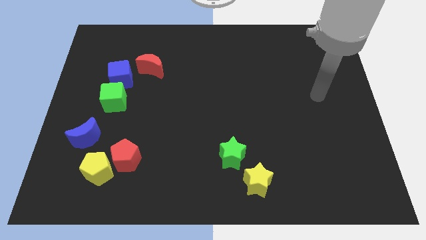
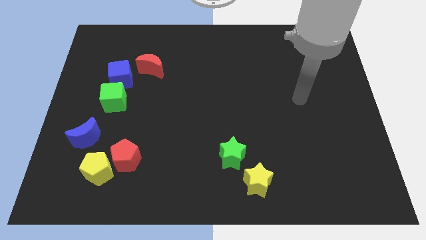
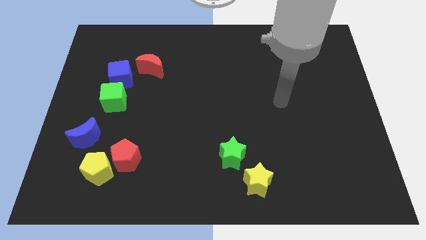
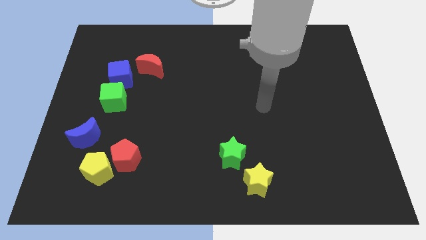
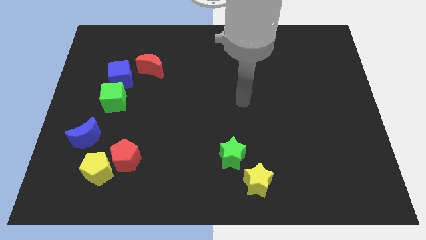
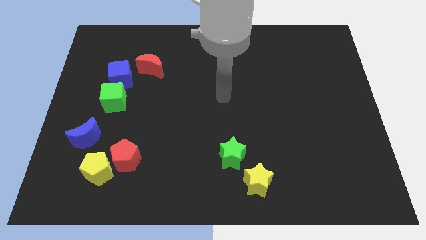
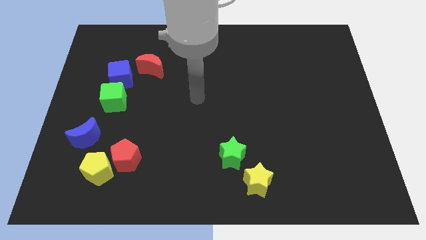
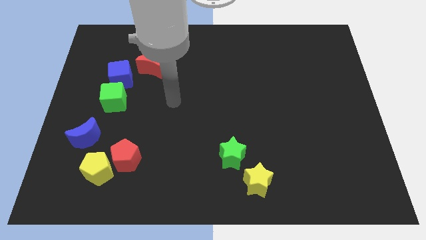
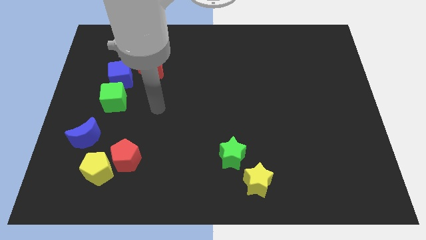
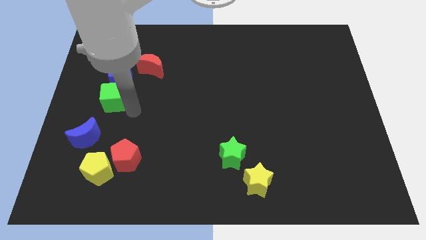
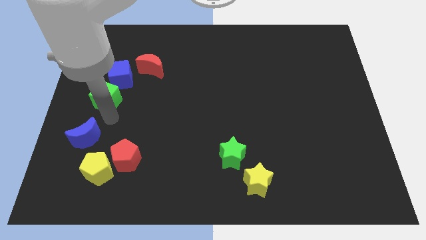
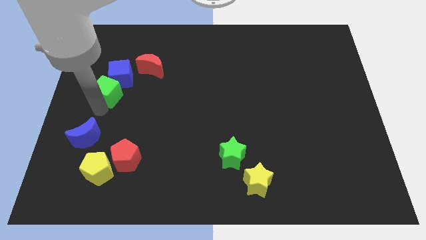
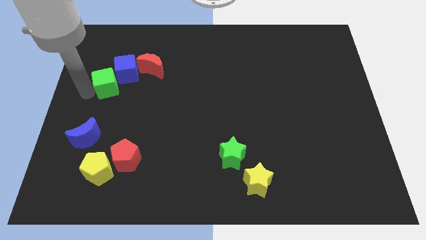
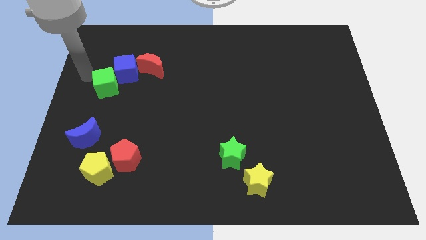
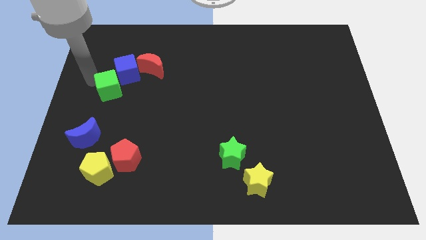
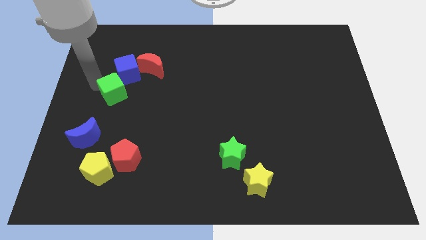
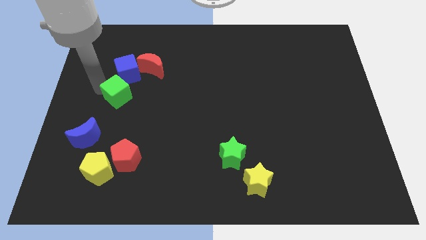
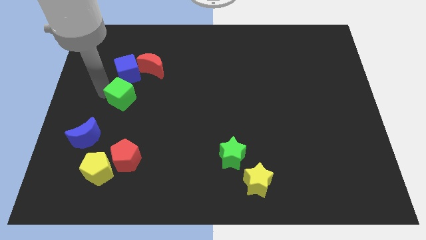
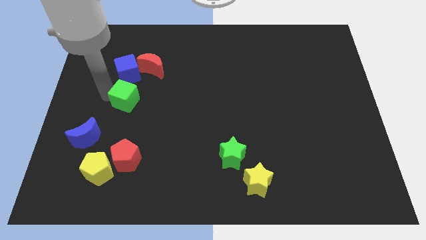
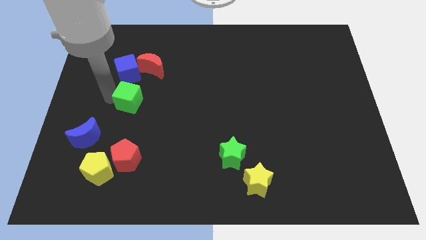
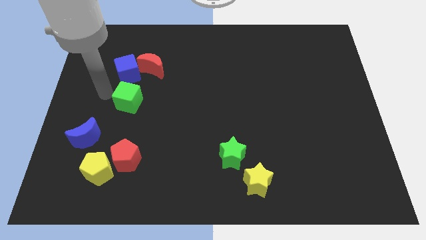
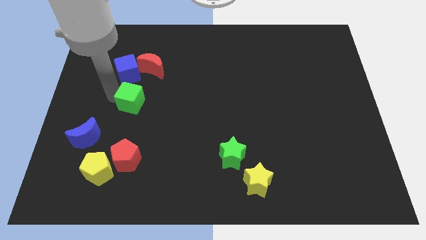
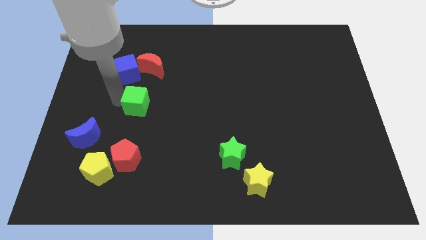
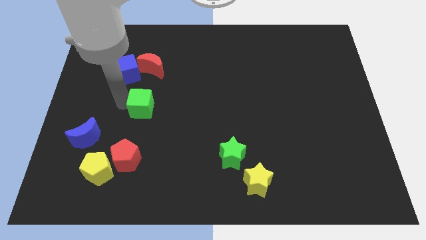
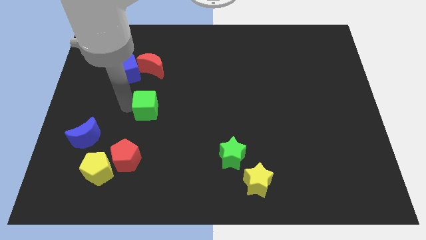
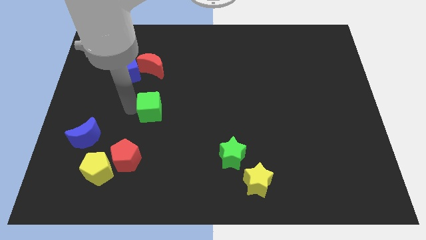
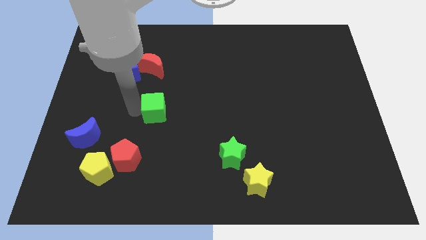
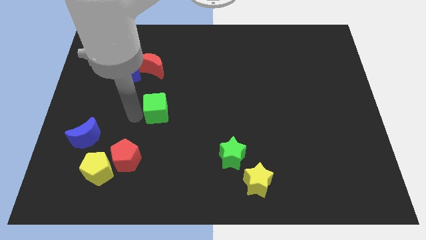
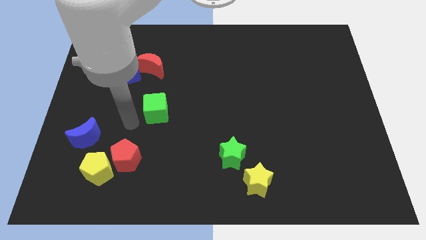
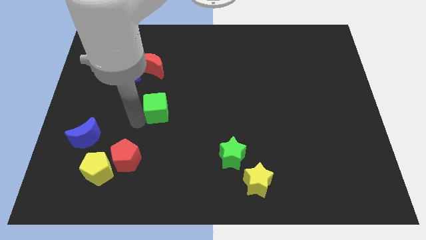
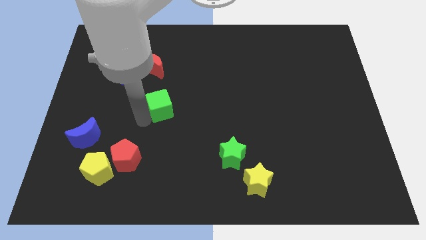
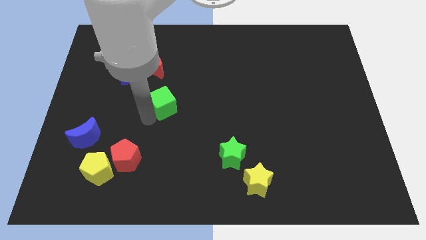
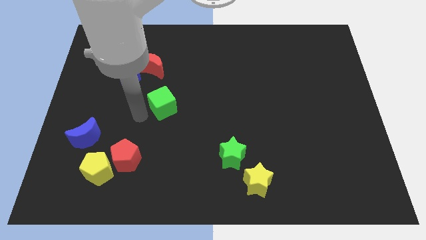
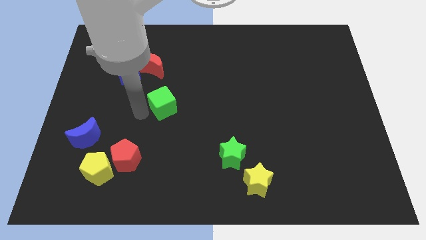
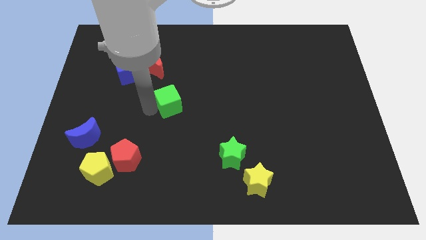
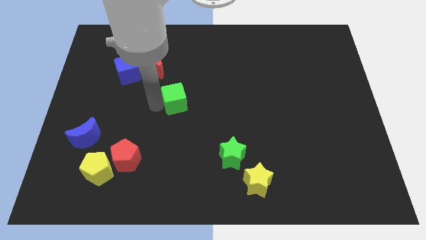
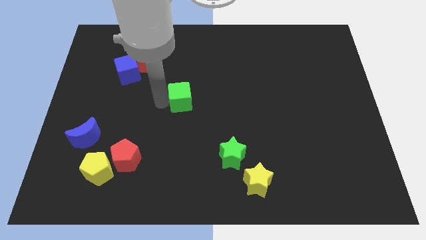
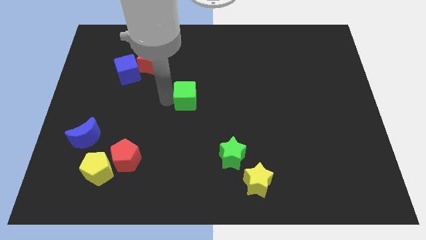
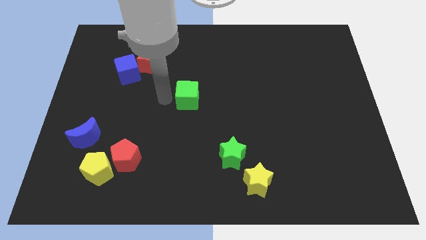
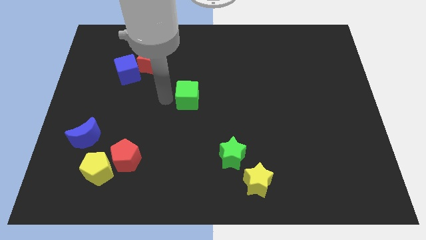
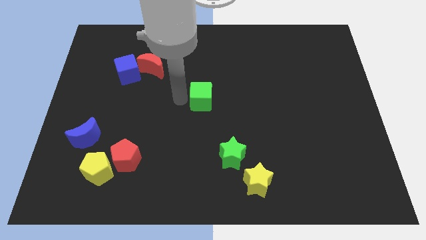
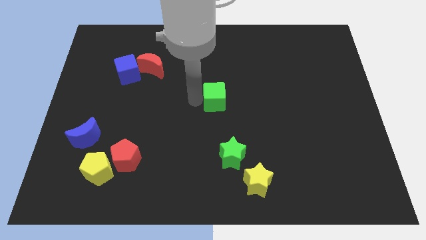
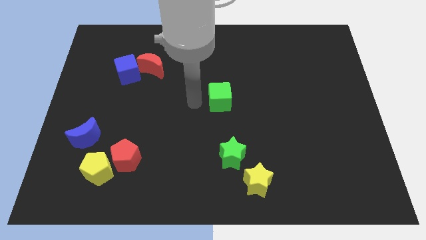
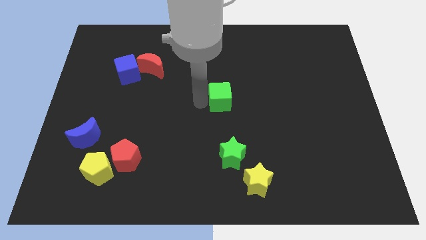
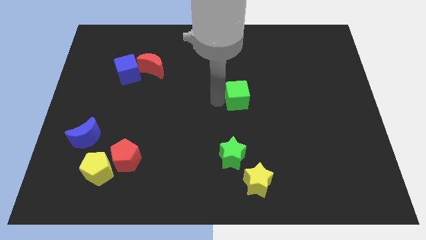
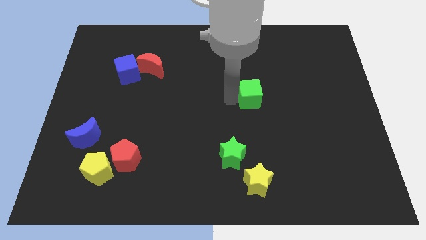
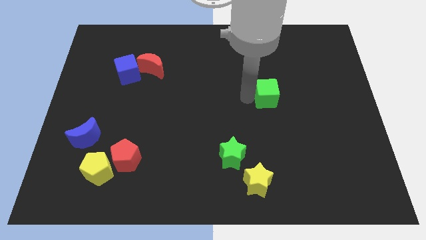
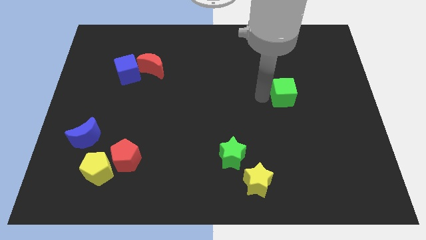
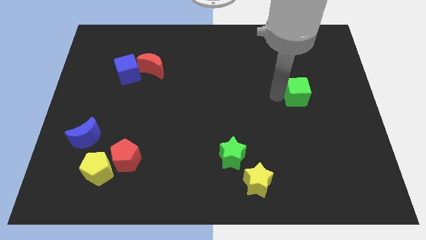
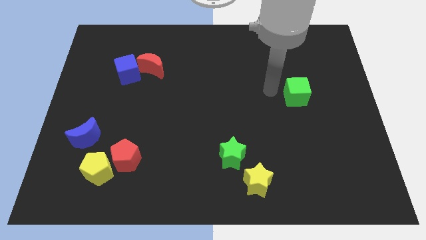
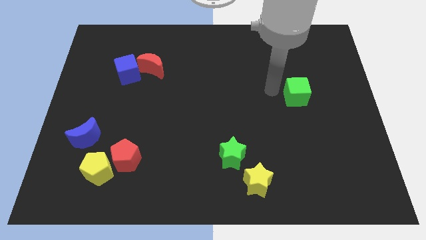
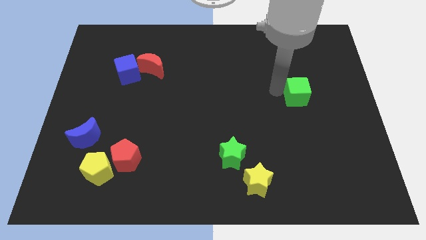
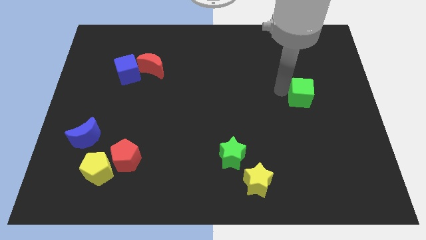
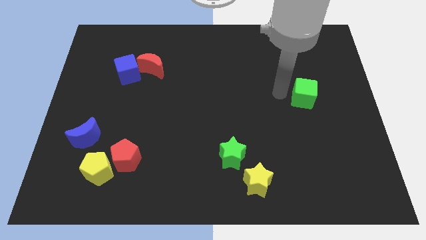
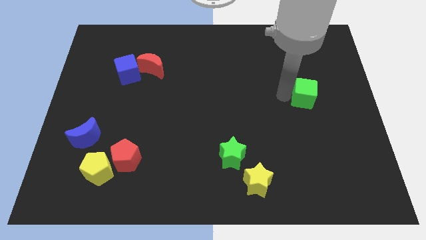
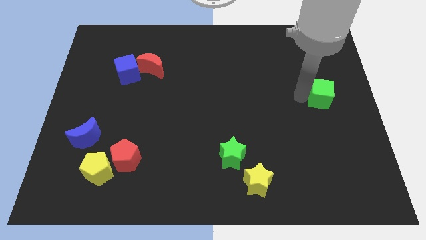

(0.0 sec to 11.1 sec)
move the green cube to the right side
